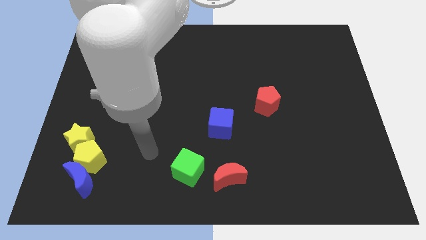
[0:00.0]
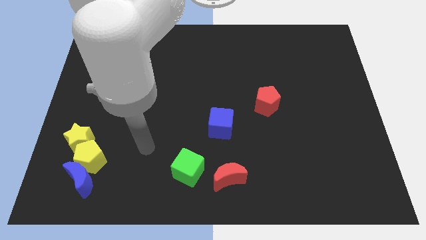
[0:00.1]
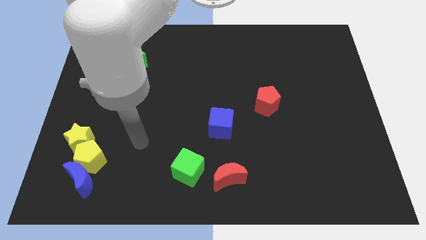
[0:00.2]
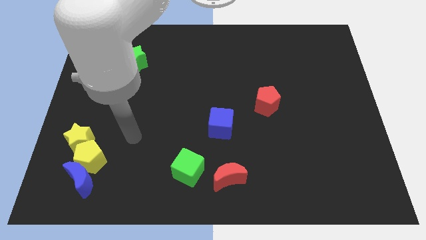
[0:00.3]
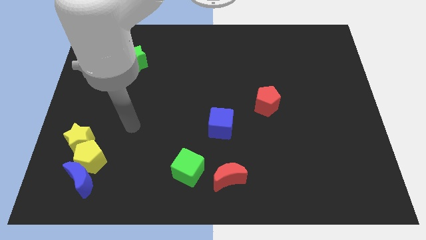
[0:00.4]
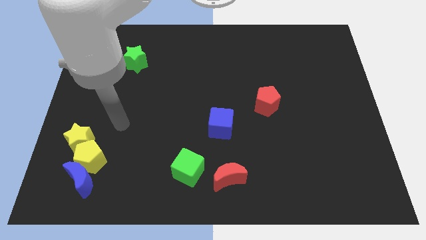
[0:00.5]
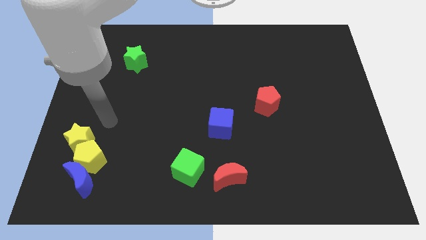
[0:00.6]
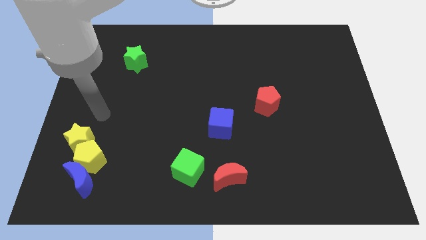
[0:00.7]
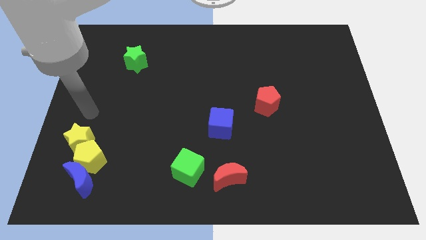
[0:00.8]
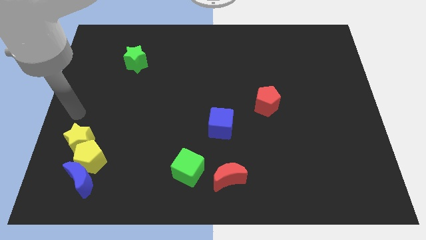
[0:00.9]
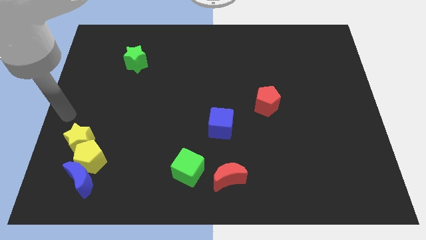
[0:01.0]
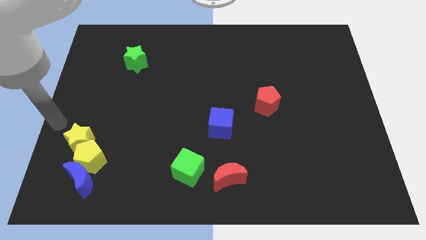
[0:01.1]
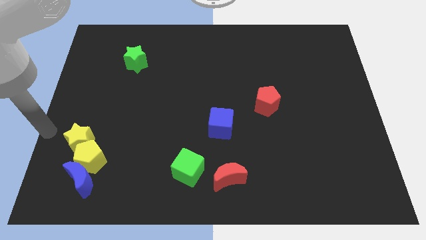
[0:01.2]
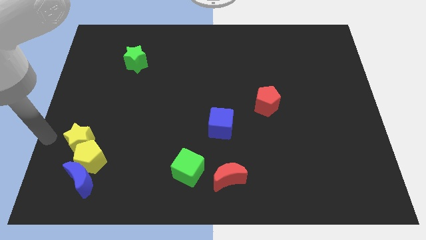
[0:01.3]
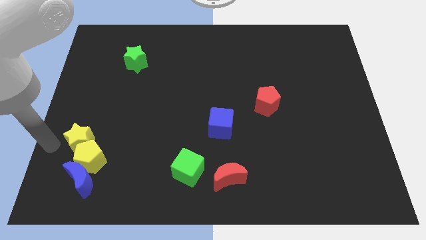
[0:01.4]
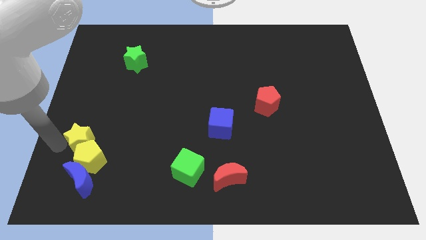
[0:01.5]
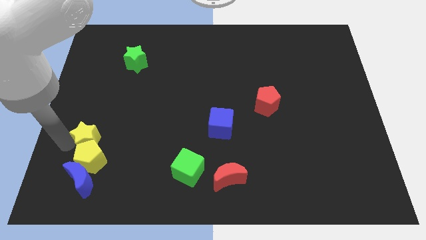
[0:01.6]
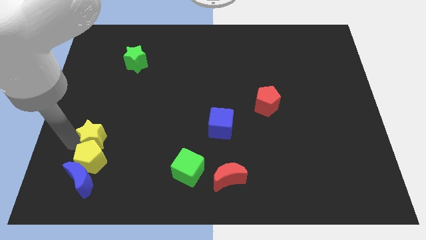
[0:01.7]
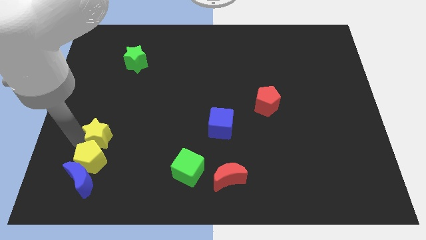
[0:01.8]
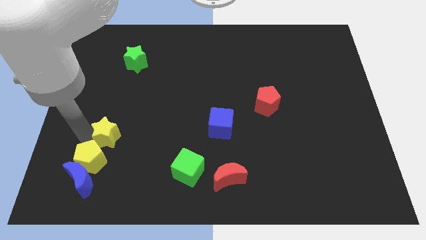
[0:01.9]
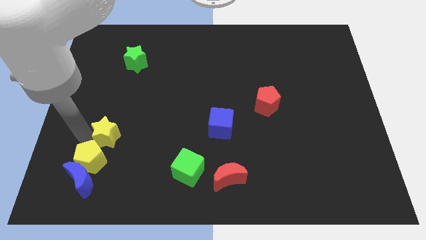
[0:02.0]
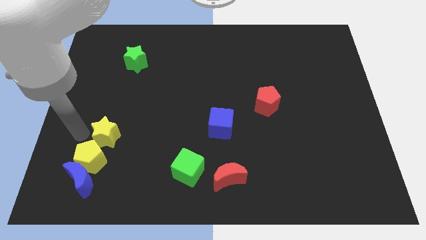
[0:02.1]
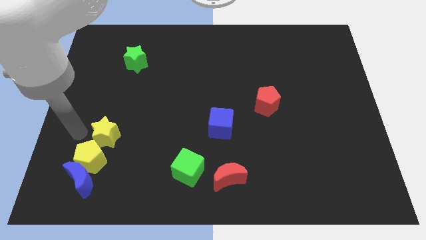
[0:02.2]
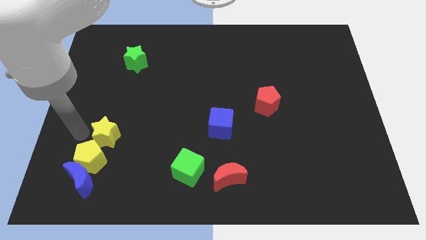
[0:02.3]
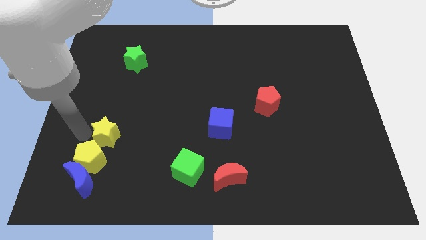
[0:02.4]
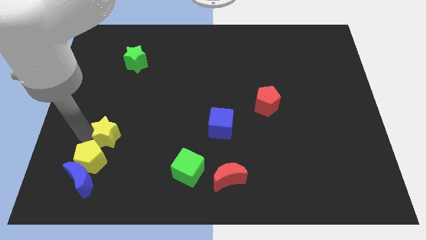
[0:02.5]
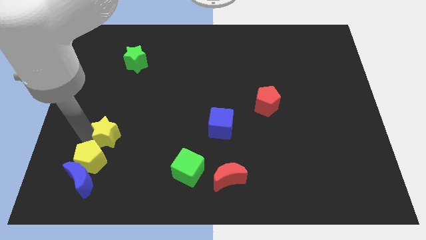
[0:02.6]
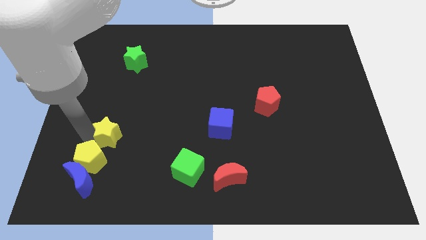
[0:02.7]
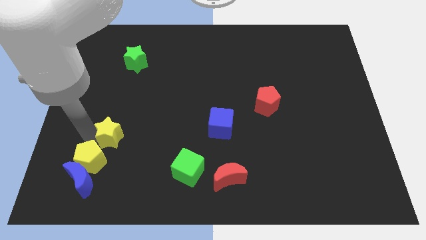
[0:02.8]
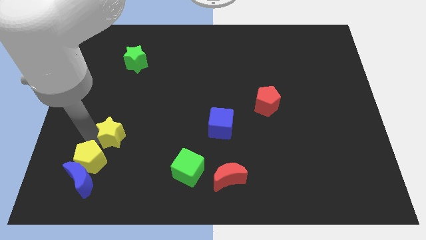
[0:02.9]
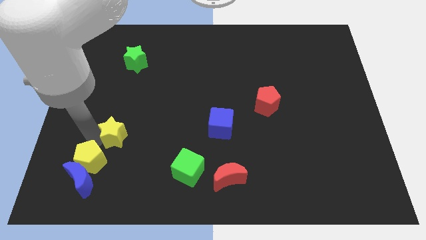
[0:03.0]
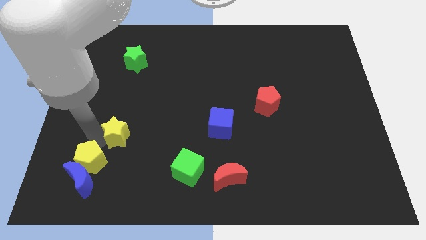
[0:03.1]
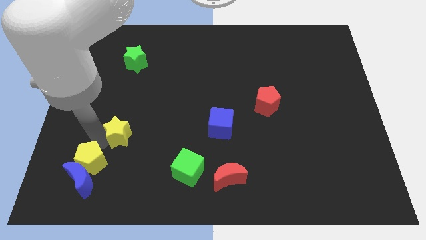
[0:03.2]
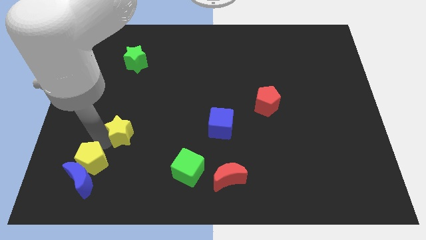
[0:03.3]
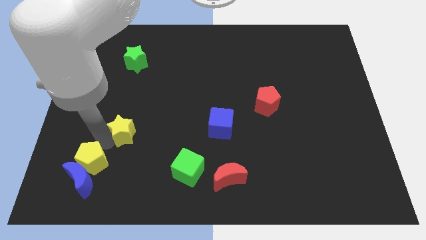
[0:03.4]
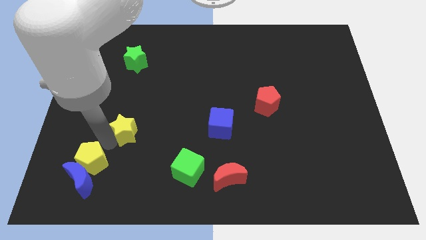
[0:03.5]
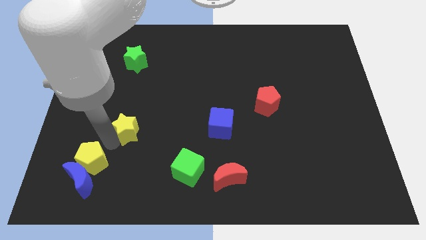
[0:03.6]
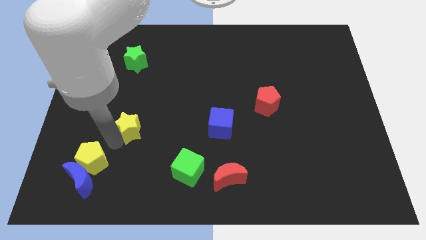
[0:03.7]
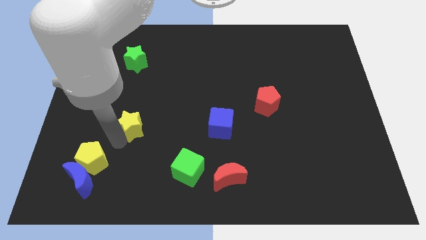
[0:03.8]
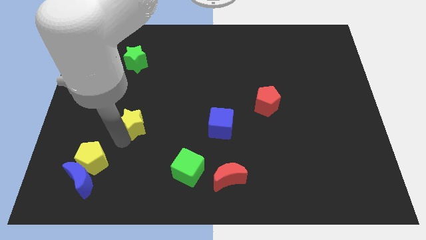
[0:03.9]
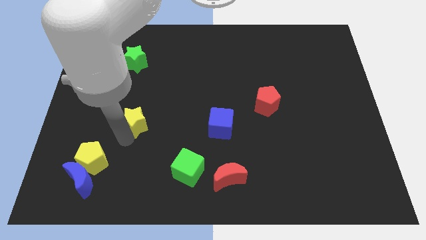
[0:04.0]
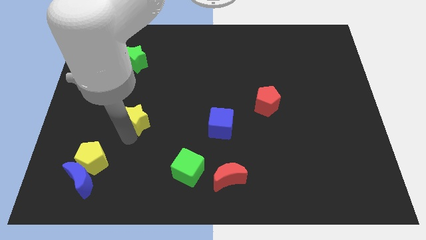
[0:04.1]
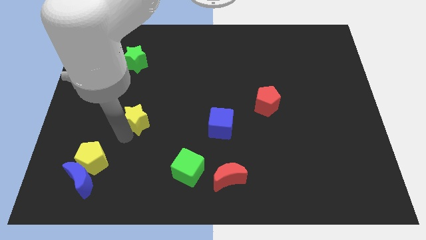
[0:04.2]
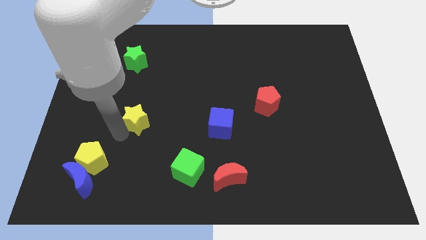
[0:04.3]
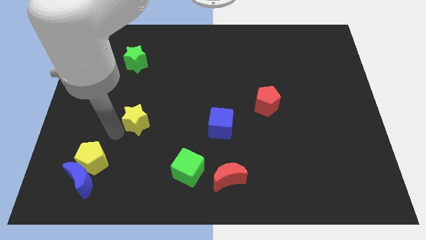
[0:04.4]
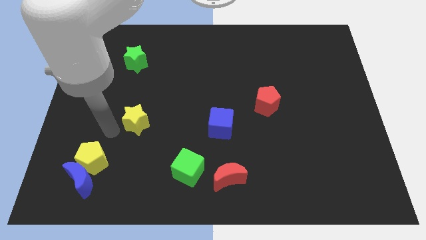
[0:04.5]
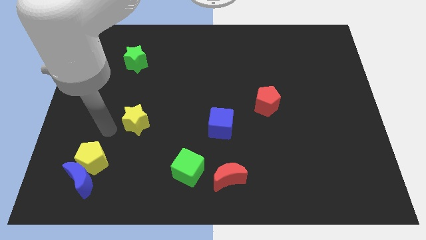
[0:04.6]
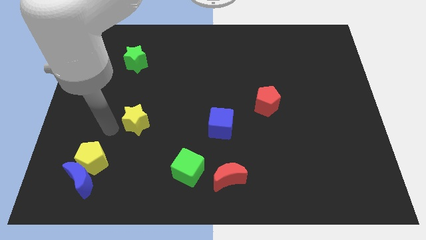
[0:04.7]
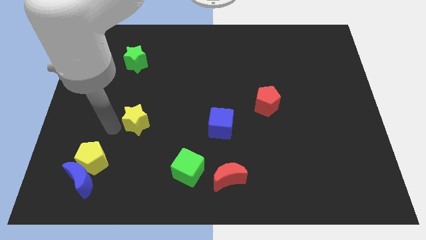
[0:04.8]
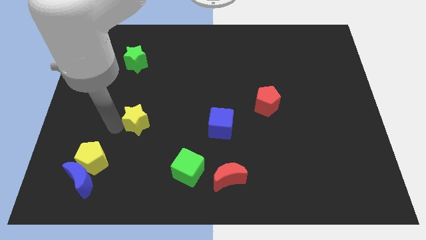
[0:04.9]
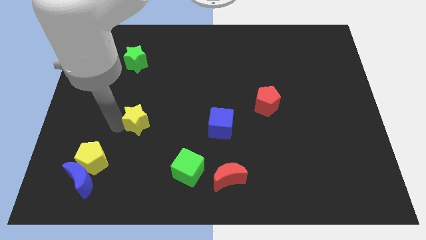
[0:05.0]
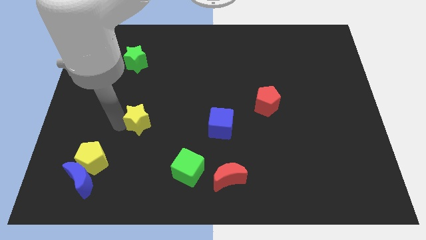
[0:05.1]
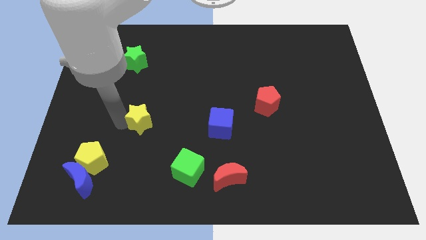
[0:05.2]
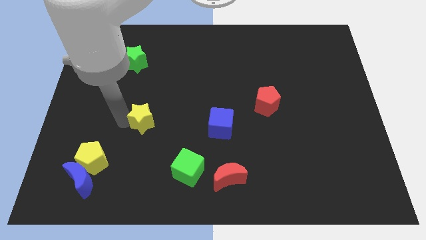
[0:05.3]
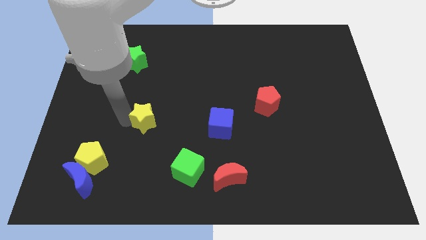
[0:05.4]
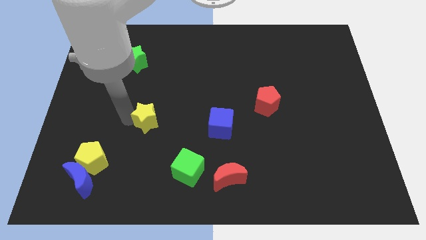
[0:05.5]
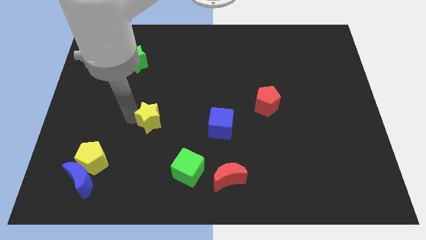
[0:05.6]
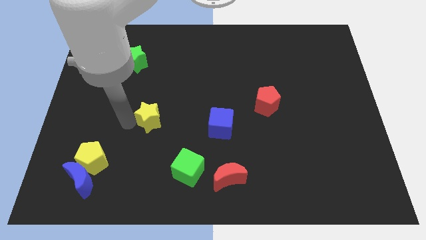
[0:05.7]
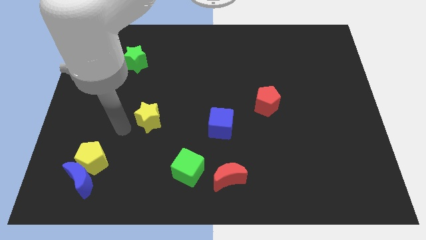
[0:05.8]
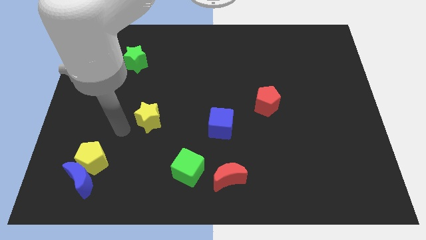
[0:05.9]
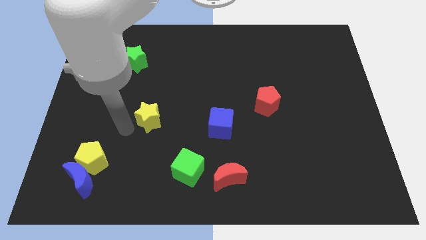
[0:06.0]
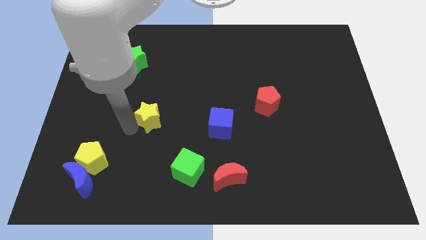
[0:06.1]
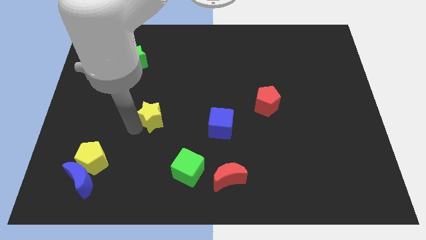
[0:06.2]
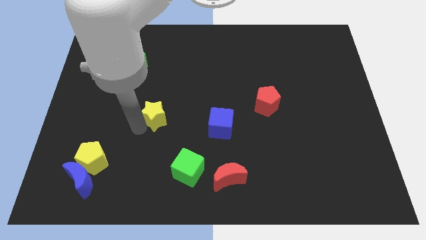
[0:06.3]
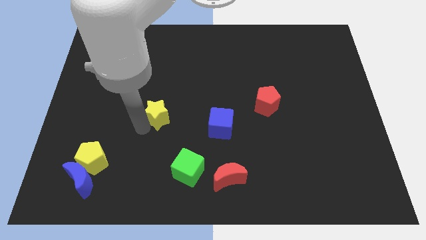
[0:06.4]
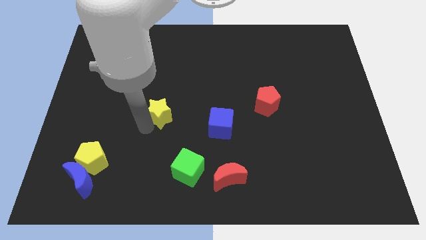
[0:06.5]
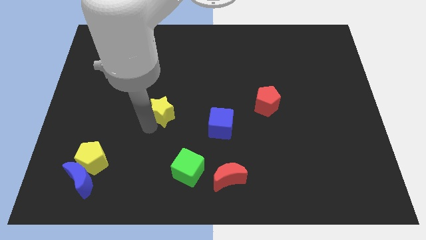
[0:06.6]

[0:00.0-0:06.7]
put the yellow star to the center
